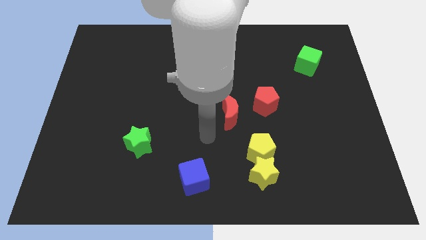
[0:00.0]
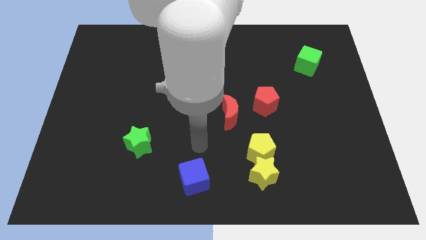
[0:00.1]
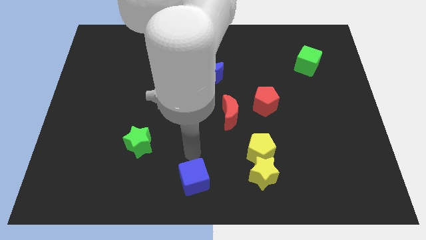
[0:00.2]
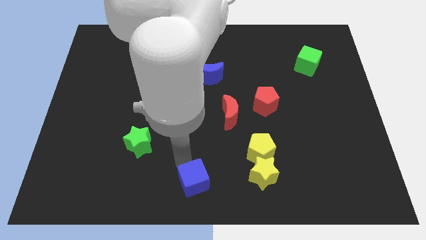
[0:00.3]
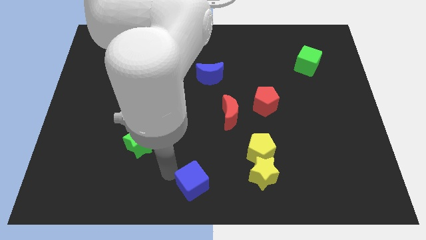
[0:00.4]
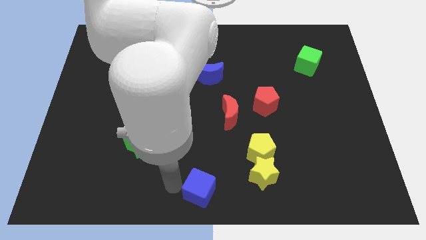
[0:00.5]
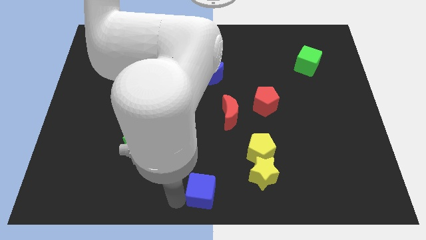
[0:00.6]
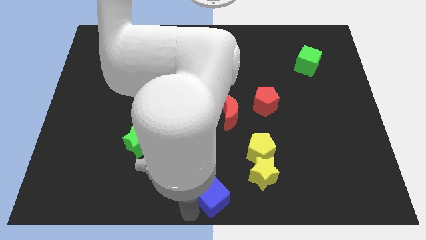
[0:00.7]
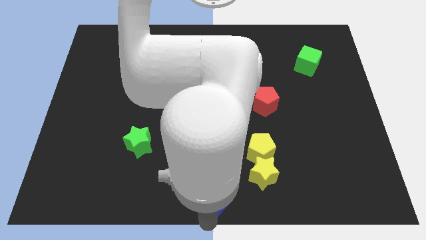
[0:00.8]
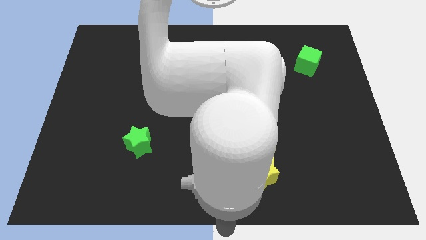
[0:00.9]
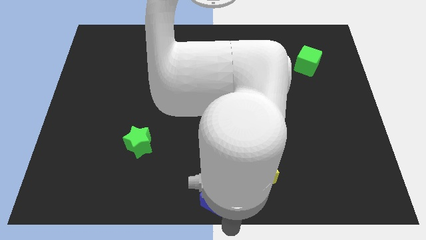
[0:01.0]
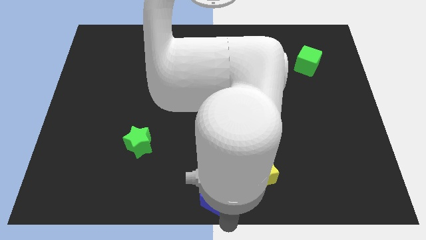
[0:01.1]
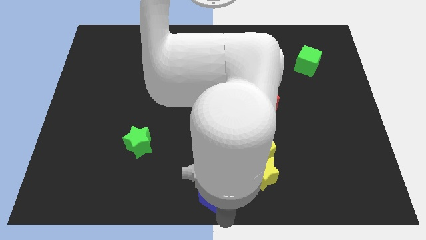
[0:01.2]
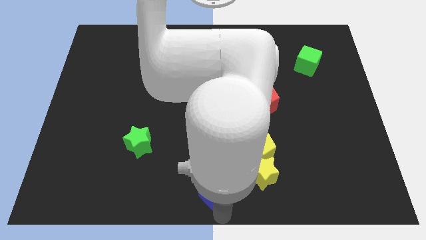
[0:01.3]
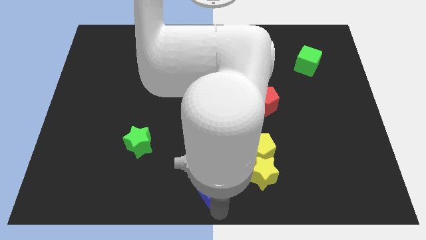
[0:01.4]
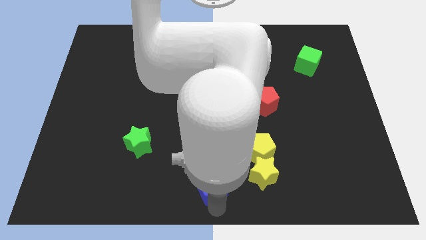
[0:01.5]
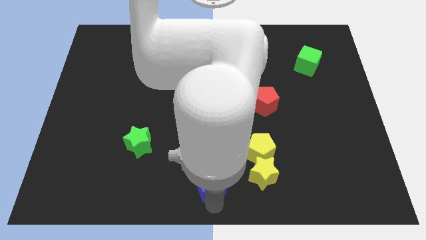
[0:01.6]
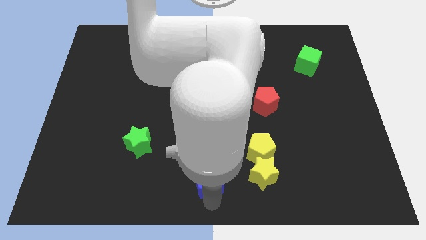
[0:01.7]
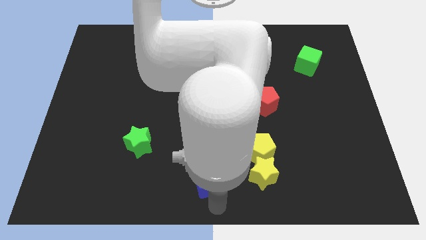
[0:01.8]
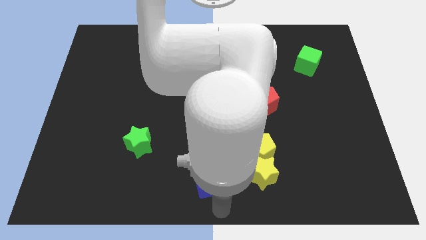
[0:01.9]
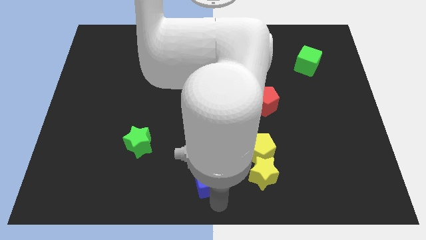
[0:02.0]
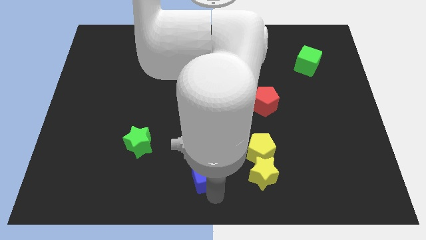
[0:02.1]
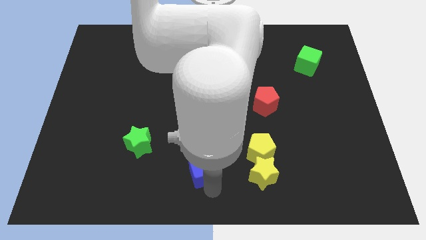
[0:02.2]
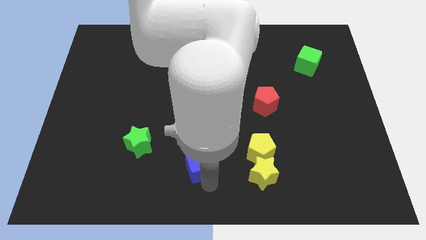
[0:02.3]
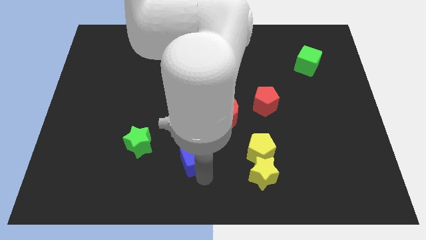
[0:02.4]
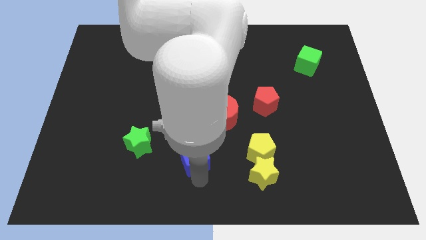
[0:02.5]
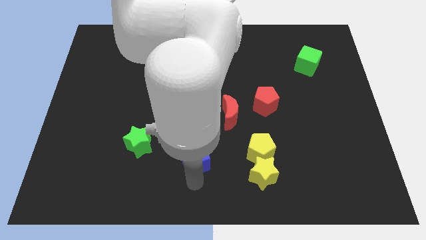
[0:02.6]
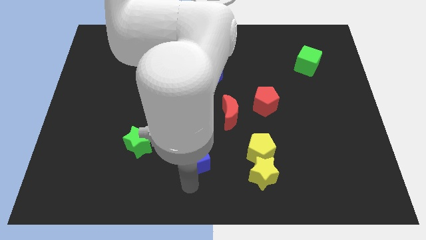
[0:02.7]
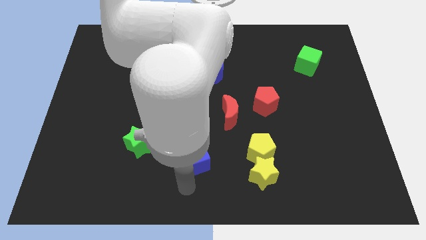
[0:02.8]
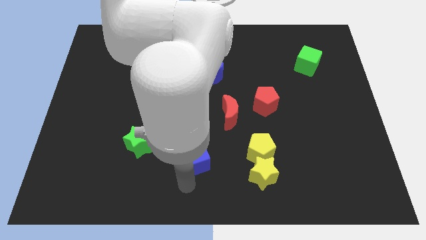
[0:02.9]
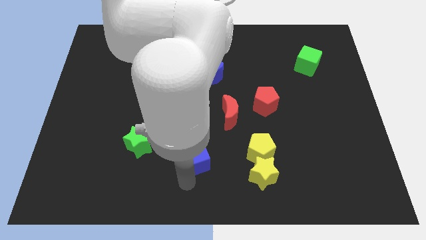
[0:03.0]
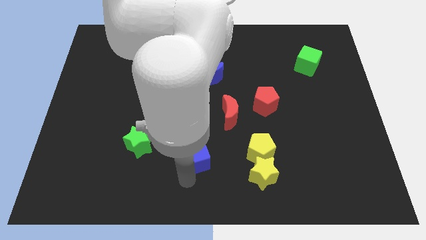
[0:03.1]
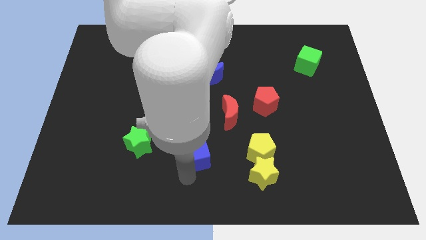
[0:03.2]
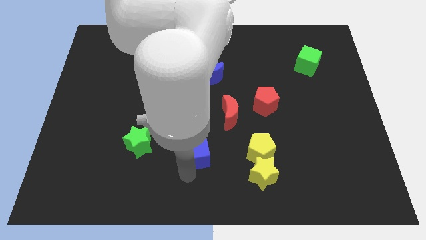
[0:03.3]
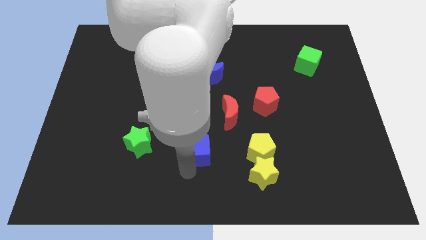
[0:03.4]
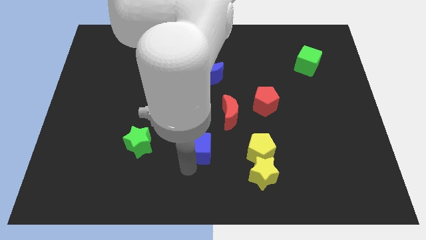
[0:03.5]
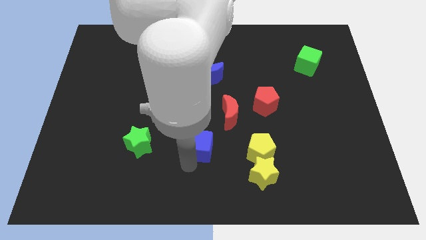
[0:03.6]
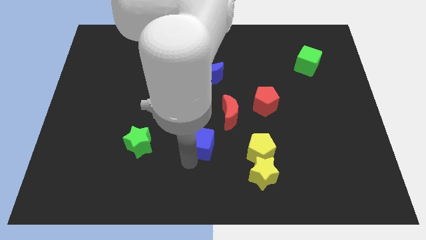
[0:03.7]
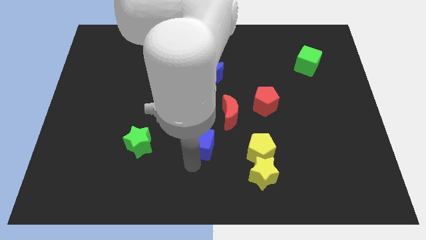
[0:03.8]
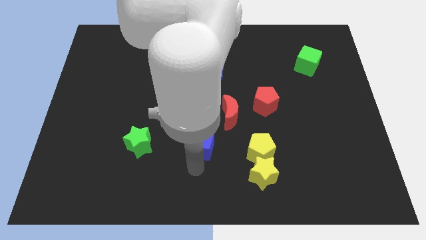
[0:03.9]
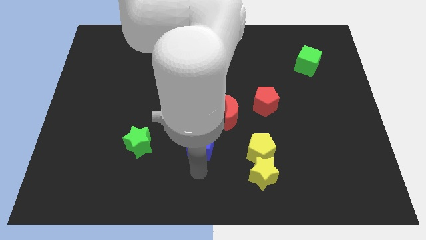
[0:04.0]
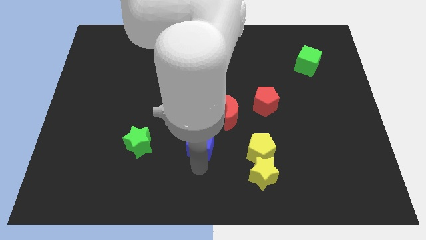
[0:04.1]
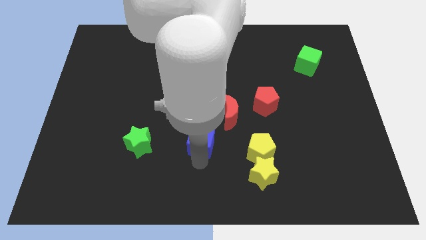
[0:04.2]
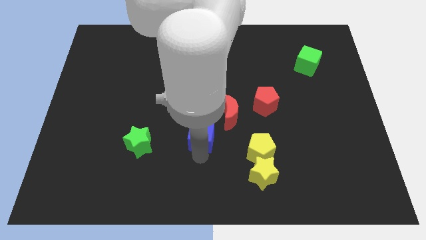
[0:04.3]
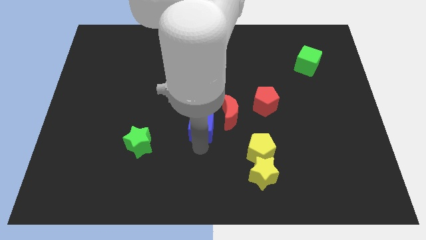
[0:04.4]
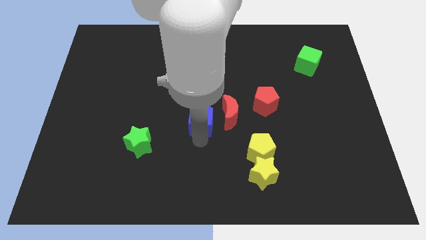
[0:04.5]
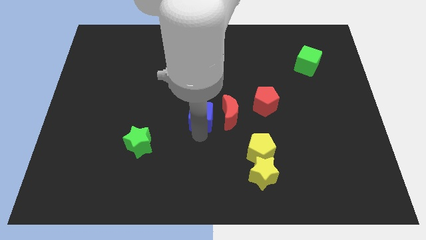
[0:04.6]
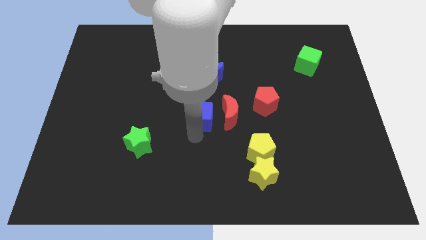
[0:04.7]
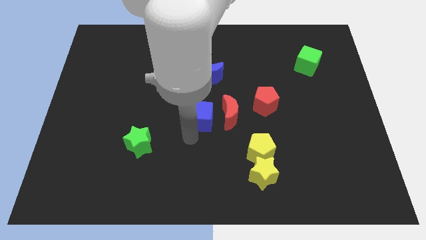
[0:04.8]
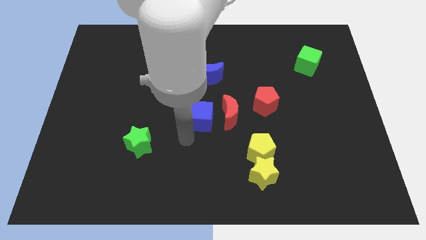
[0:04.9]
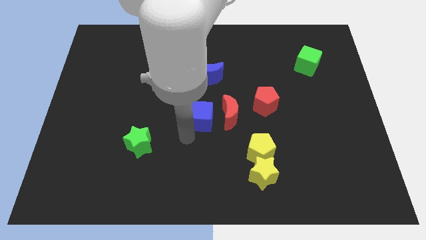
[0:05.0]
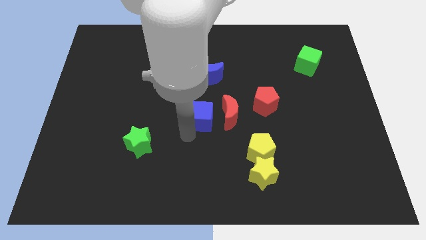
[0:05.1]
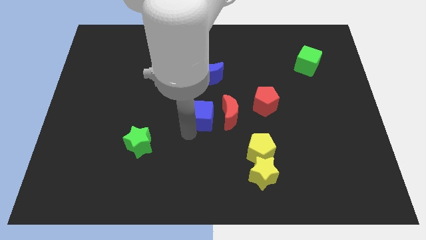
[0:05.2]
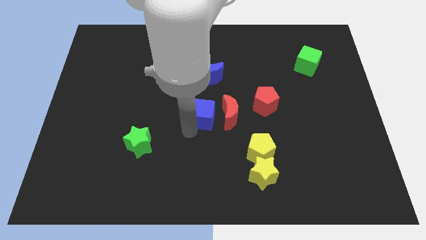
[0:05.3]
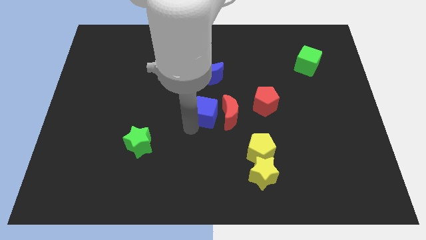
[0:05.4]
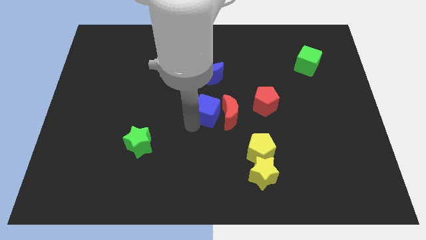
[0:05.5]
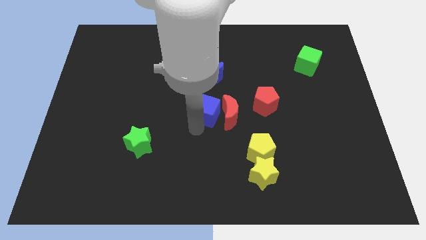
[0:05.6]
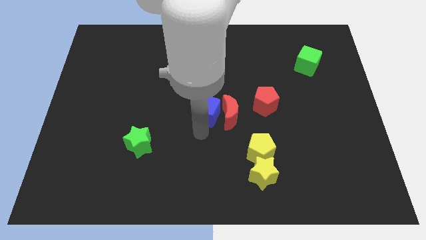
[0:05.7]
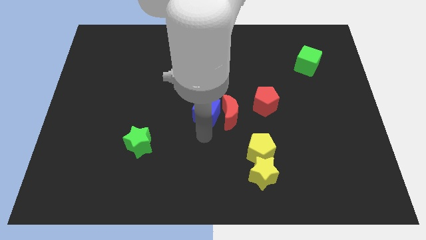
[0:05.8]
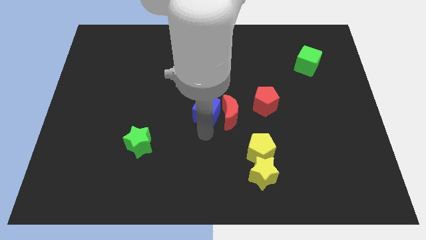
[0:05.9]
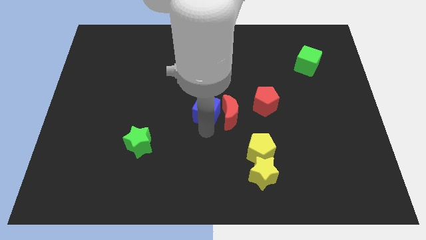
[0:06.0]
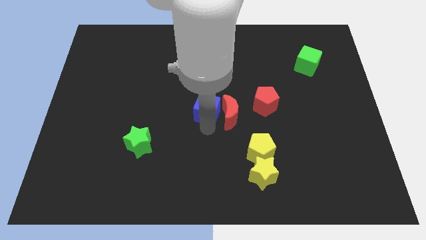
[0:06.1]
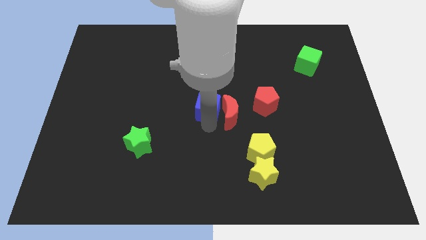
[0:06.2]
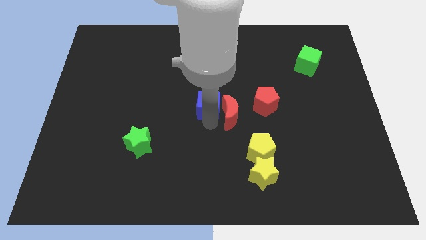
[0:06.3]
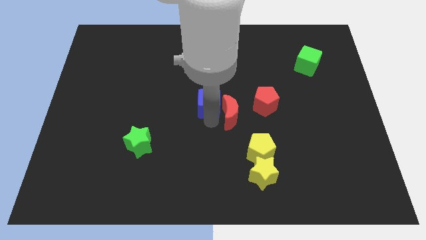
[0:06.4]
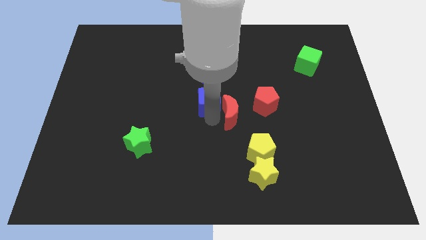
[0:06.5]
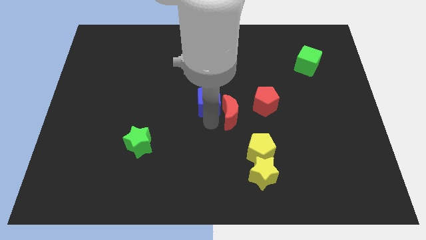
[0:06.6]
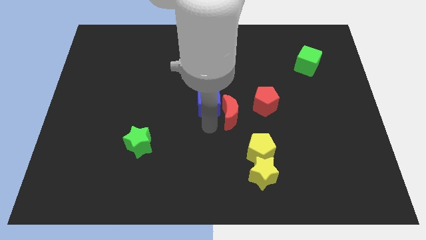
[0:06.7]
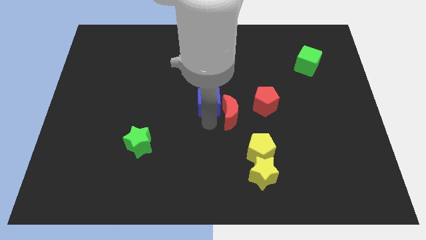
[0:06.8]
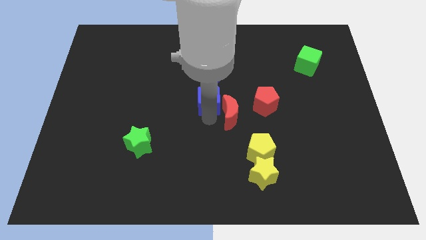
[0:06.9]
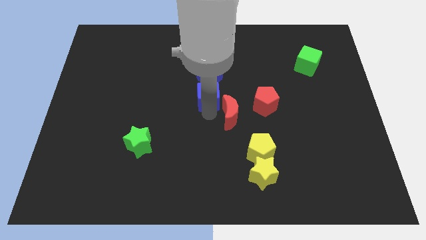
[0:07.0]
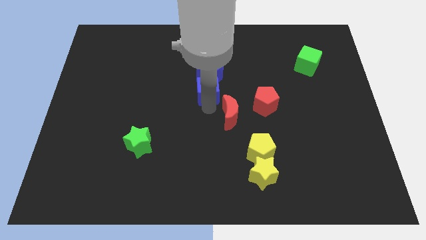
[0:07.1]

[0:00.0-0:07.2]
put the blue cube close to the blue moon

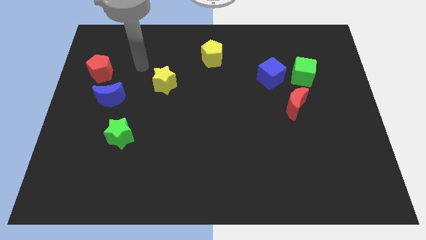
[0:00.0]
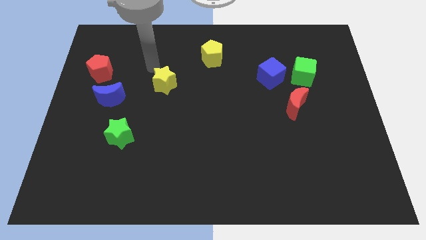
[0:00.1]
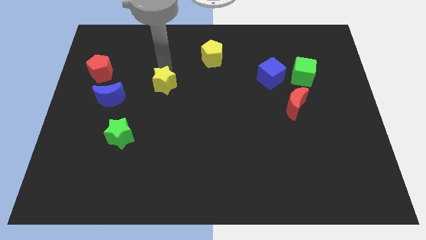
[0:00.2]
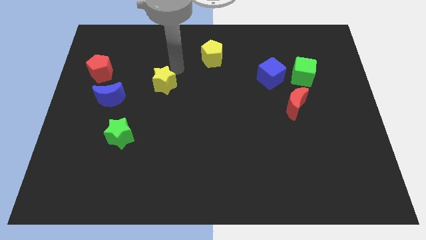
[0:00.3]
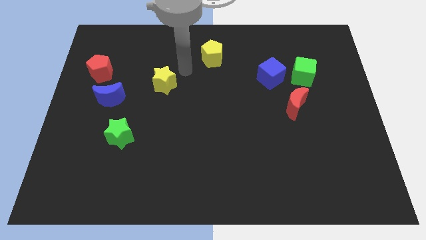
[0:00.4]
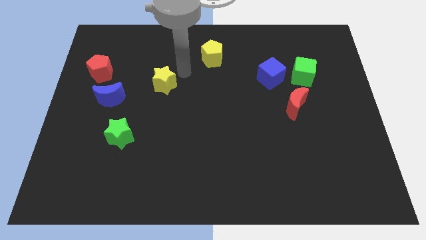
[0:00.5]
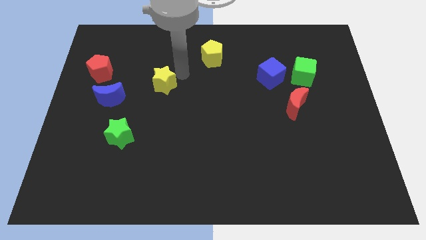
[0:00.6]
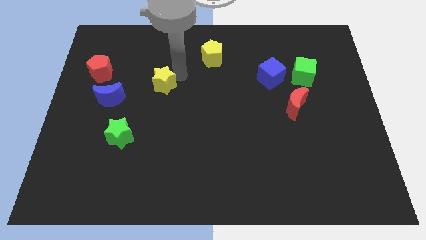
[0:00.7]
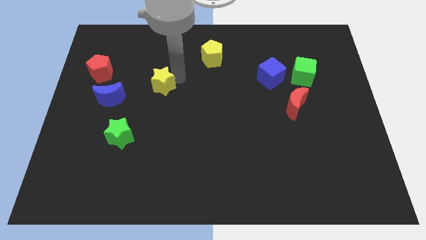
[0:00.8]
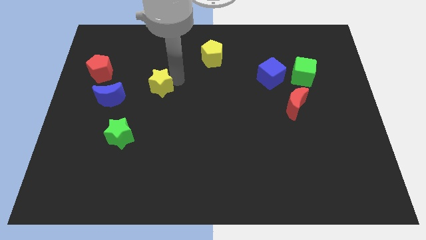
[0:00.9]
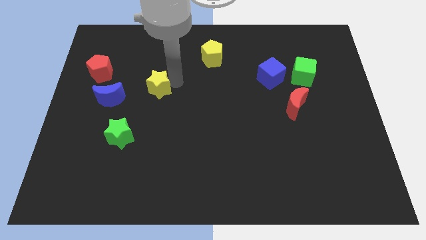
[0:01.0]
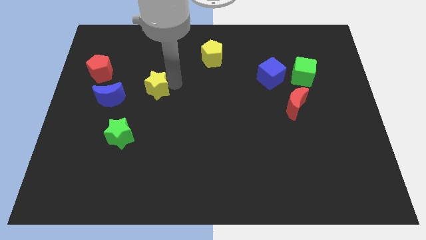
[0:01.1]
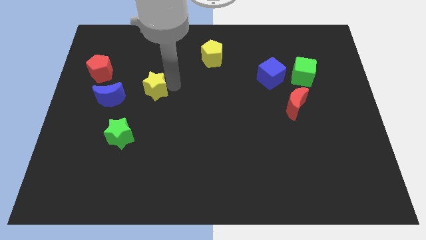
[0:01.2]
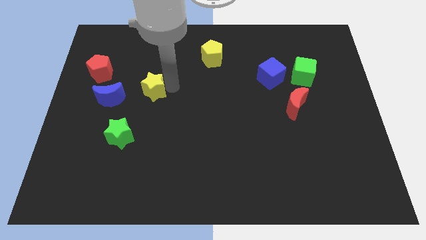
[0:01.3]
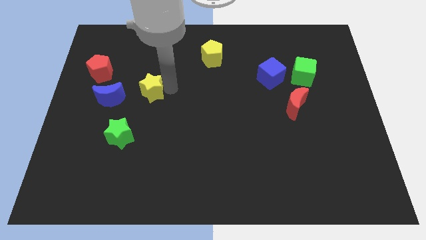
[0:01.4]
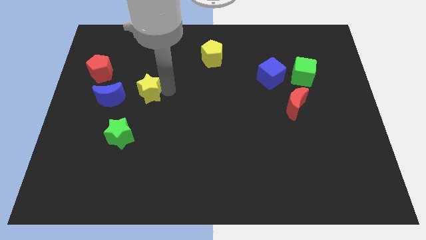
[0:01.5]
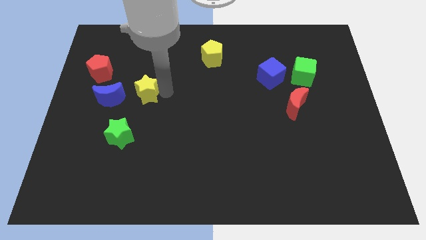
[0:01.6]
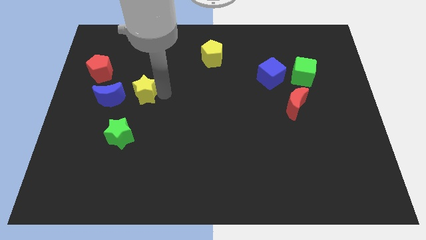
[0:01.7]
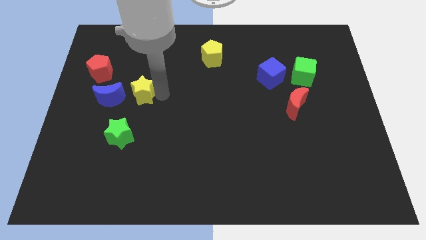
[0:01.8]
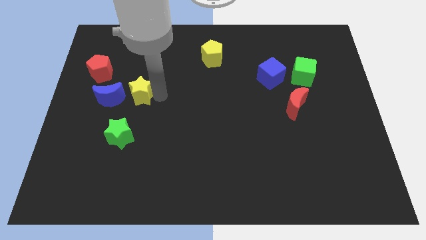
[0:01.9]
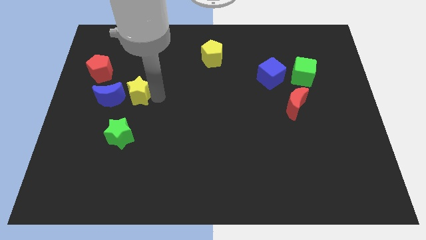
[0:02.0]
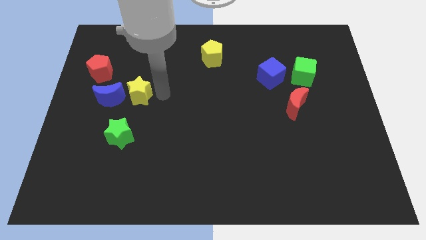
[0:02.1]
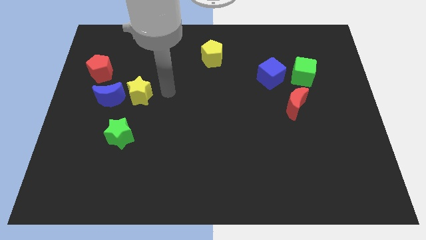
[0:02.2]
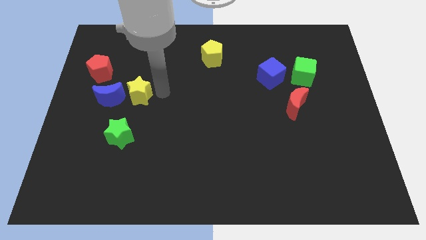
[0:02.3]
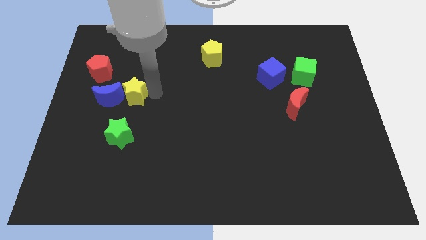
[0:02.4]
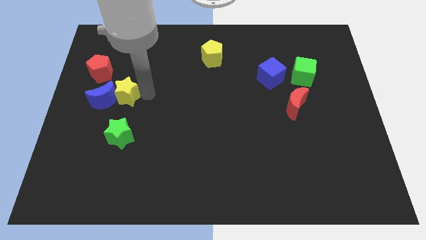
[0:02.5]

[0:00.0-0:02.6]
move the yellow star close to the blue moon
